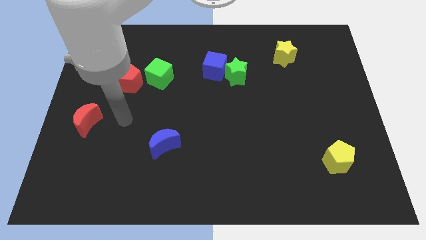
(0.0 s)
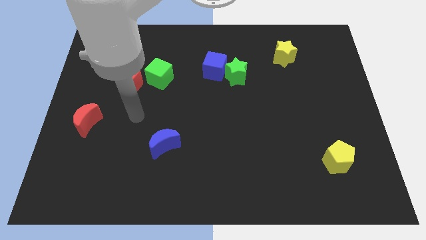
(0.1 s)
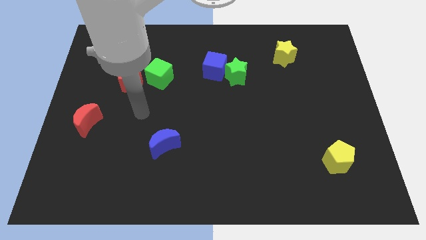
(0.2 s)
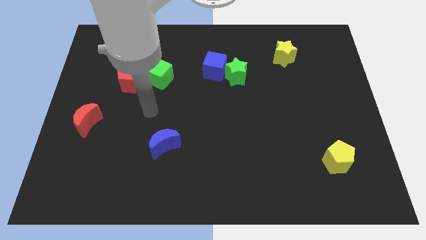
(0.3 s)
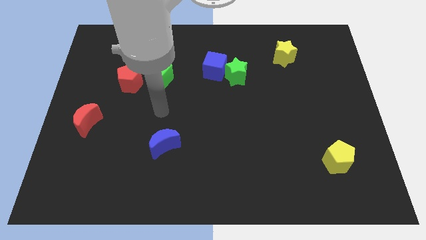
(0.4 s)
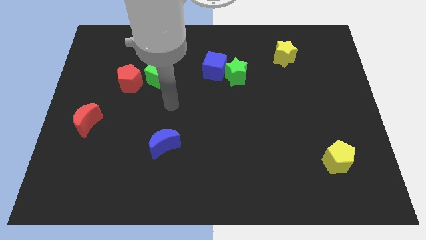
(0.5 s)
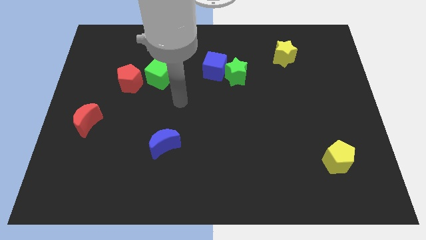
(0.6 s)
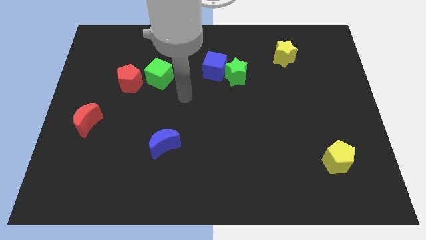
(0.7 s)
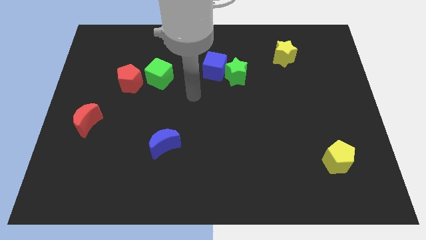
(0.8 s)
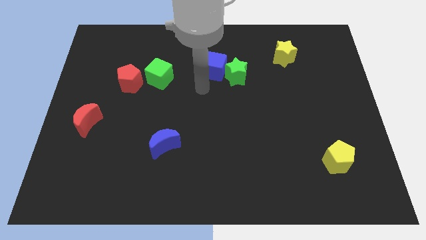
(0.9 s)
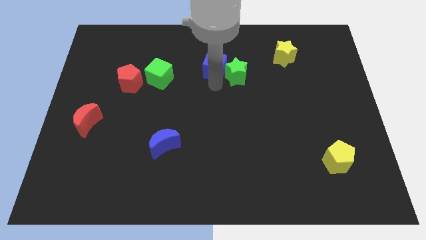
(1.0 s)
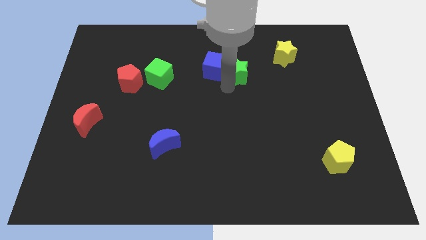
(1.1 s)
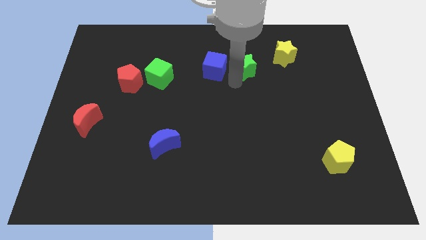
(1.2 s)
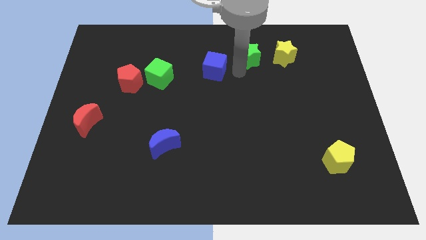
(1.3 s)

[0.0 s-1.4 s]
pull the blue cube apart from the green star

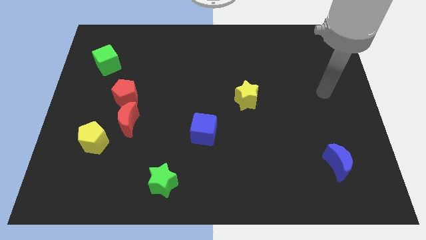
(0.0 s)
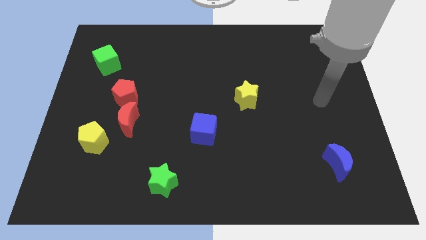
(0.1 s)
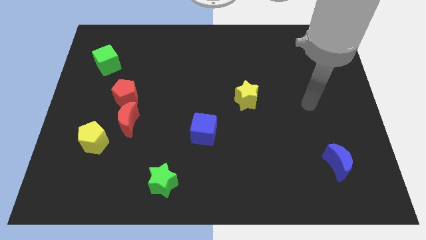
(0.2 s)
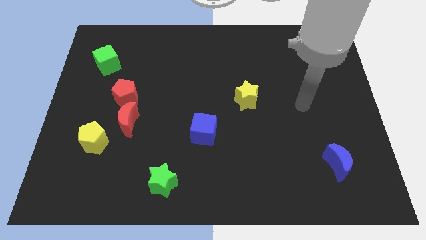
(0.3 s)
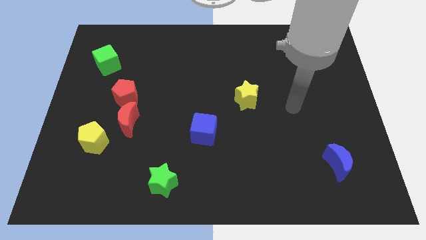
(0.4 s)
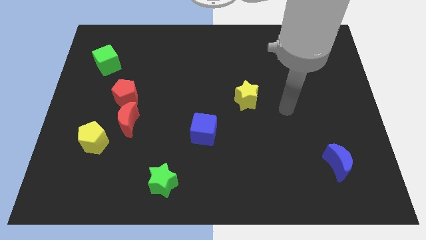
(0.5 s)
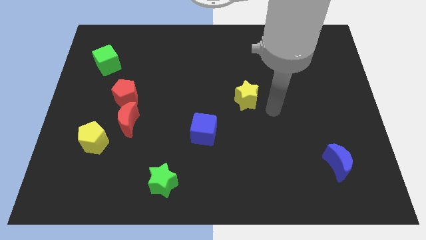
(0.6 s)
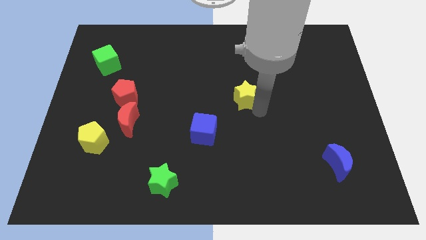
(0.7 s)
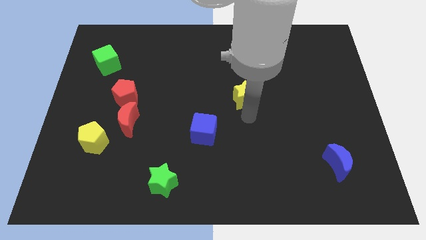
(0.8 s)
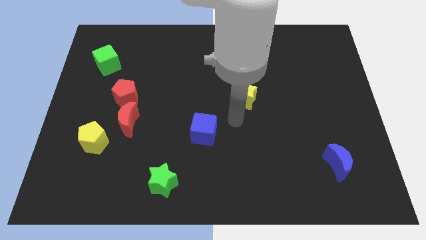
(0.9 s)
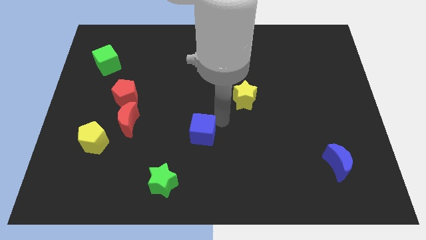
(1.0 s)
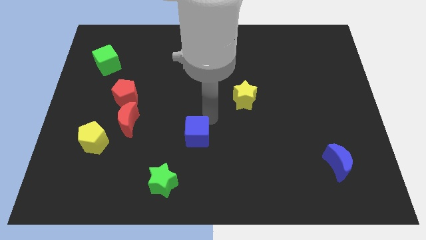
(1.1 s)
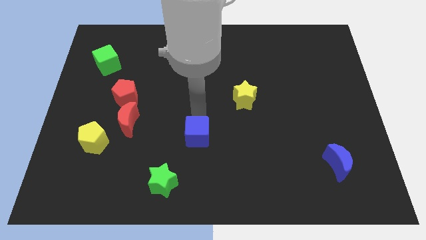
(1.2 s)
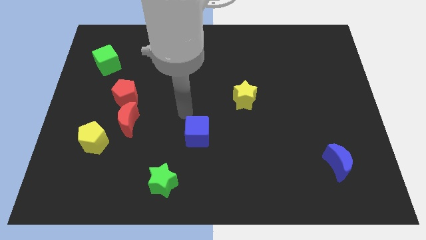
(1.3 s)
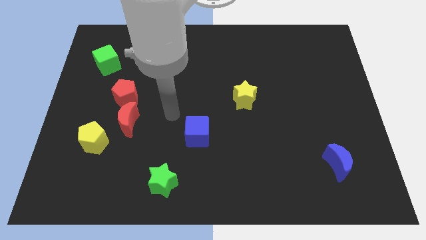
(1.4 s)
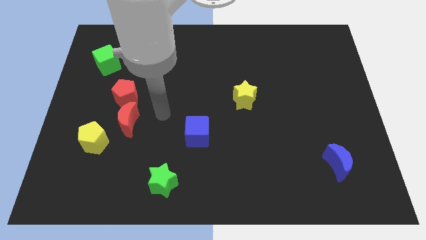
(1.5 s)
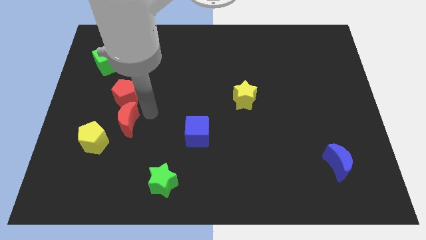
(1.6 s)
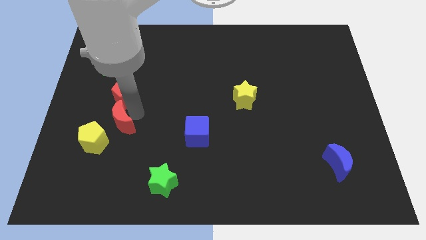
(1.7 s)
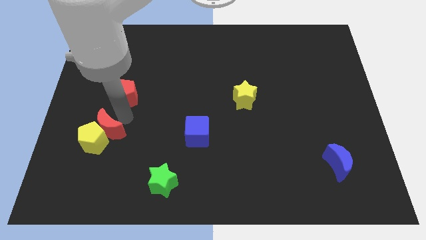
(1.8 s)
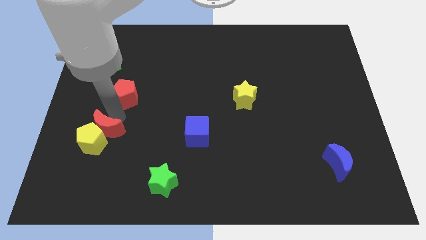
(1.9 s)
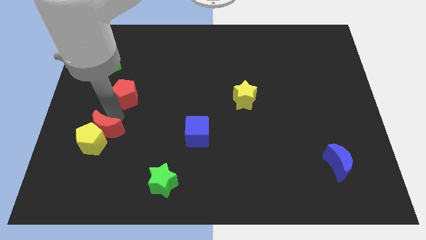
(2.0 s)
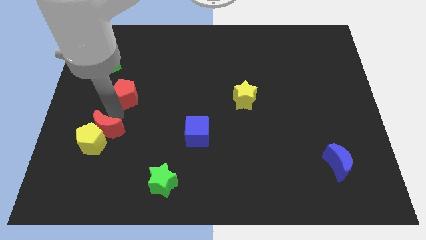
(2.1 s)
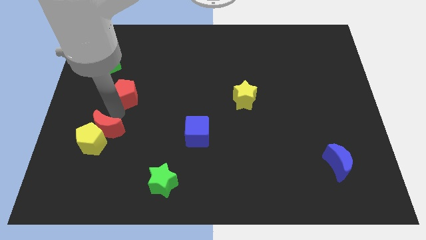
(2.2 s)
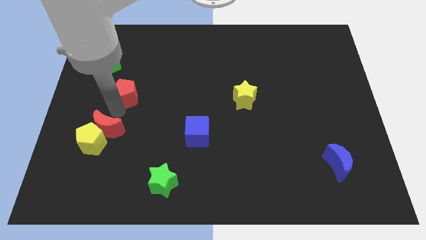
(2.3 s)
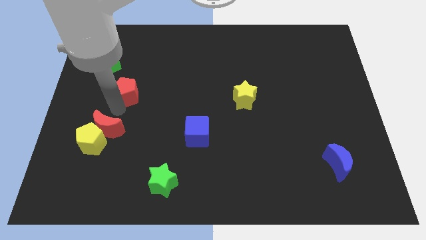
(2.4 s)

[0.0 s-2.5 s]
separate the red pentagon from the red moon

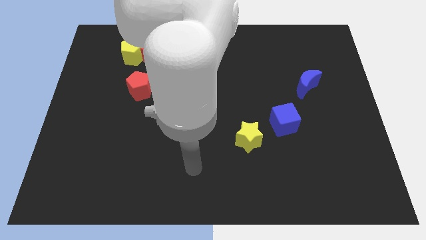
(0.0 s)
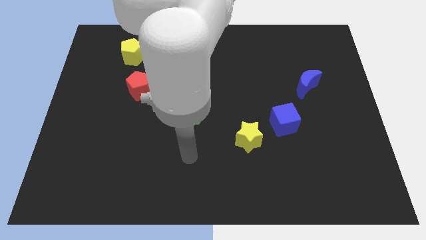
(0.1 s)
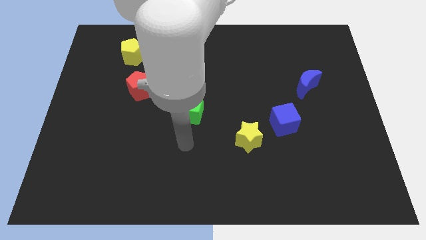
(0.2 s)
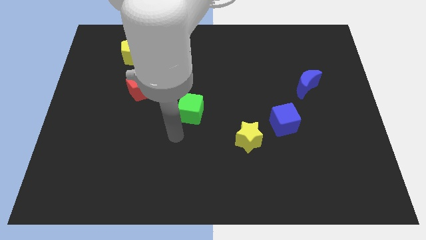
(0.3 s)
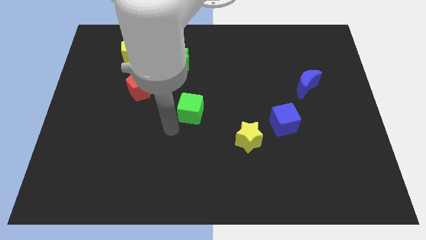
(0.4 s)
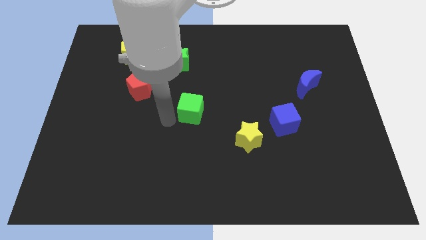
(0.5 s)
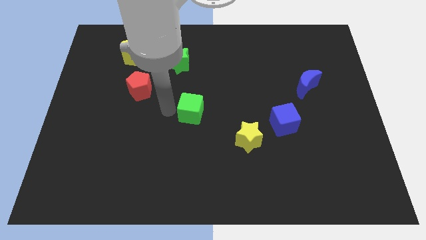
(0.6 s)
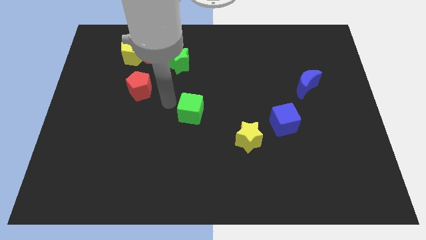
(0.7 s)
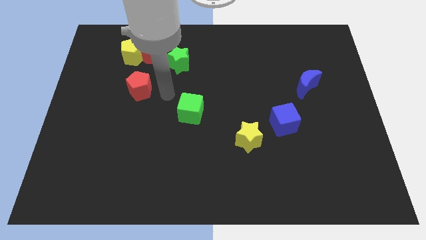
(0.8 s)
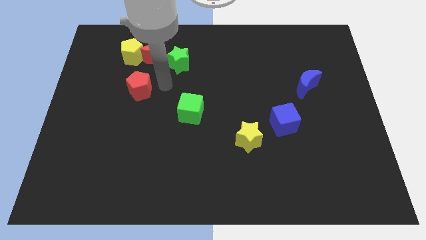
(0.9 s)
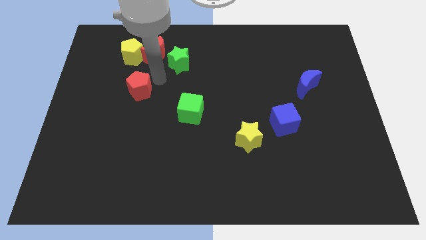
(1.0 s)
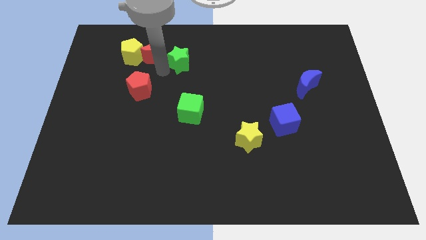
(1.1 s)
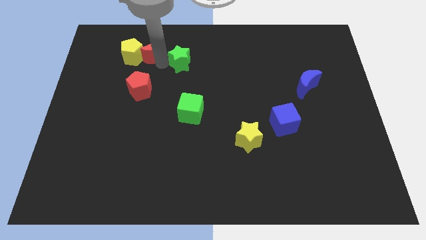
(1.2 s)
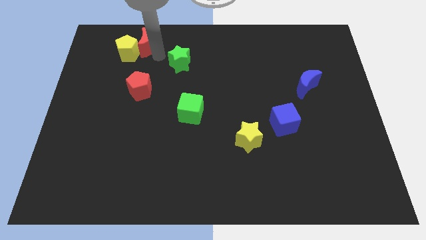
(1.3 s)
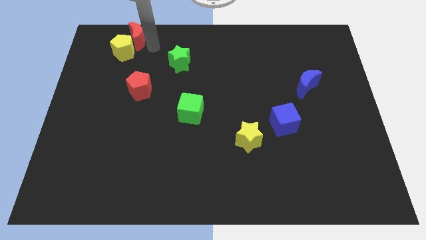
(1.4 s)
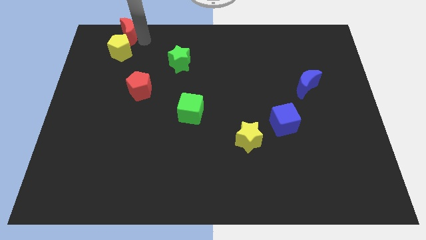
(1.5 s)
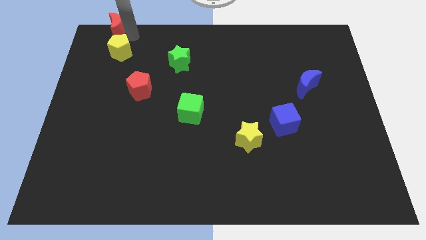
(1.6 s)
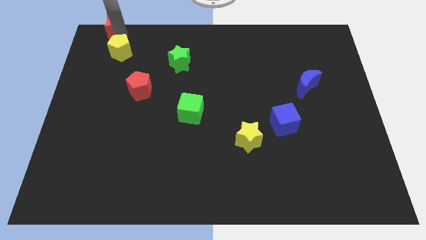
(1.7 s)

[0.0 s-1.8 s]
pull the yellow pentagon apart from the red moon

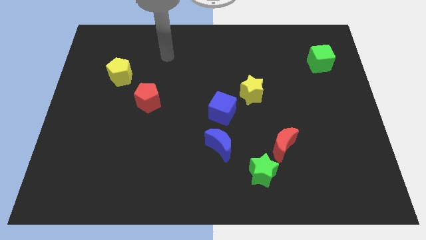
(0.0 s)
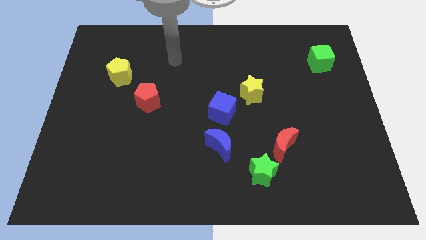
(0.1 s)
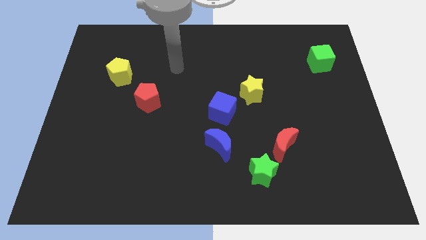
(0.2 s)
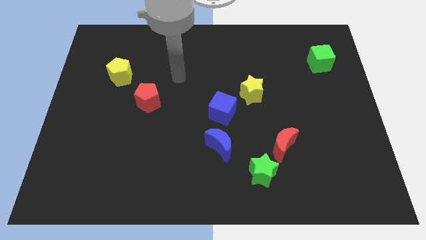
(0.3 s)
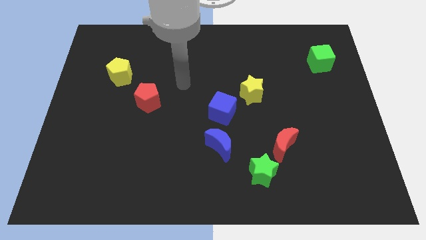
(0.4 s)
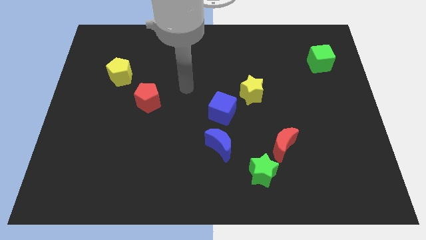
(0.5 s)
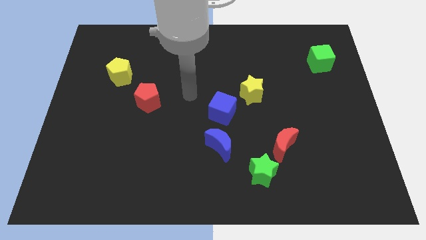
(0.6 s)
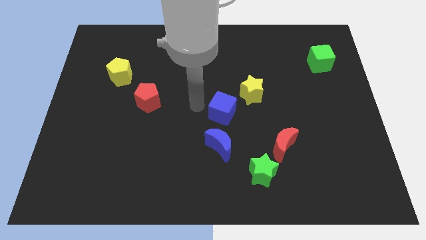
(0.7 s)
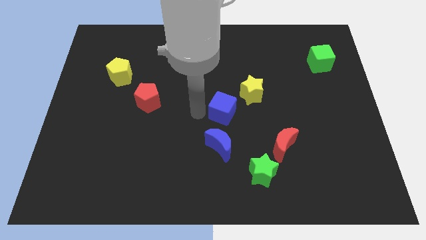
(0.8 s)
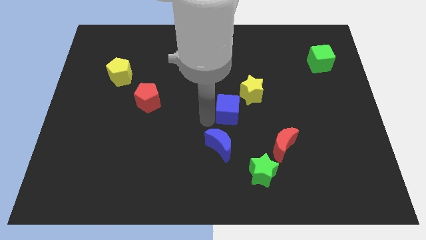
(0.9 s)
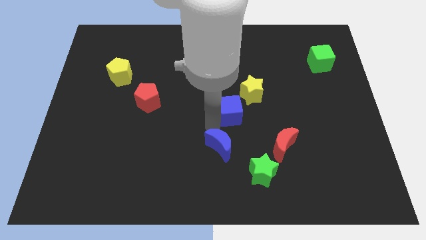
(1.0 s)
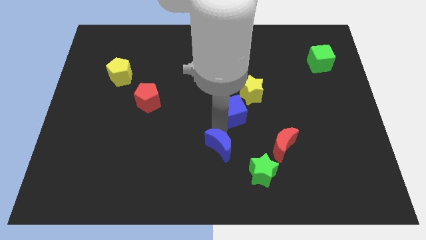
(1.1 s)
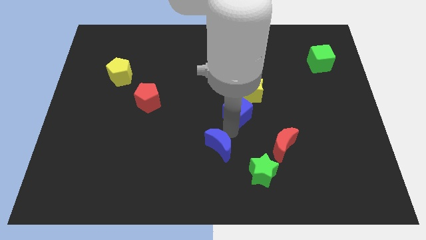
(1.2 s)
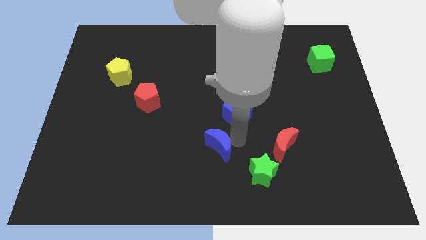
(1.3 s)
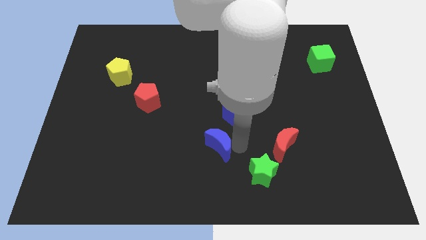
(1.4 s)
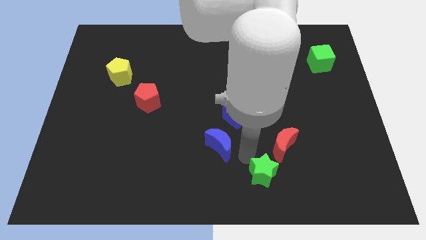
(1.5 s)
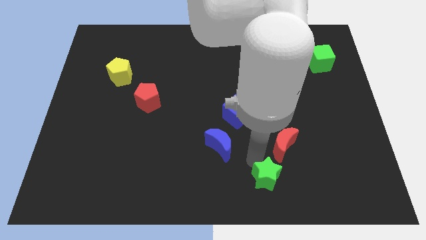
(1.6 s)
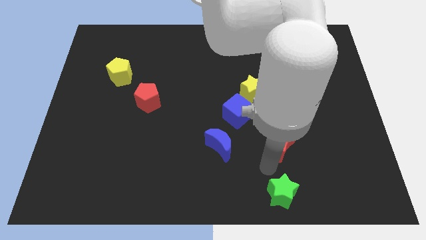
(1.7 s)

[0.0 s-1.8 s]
move the red moon away from the green star

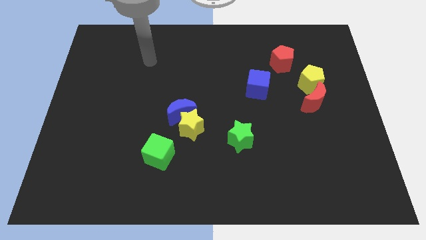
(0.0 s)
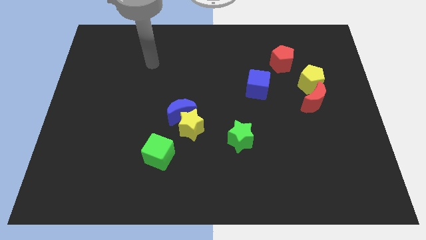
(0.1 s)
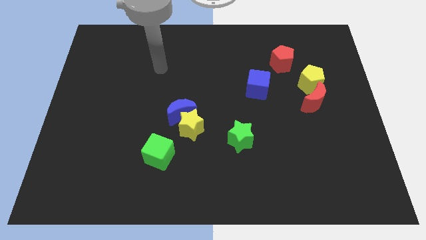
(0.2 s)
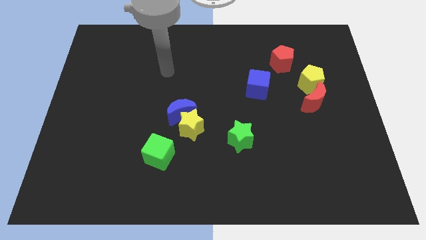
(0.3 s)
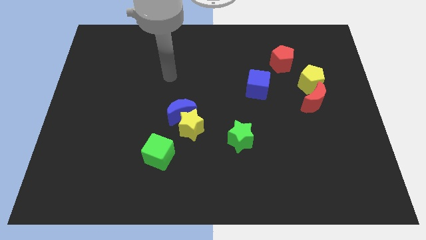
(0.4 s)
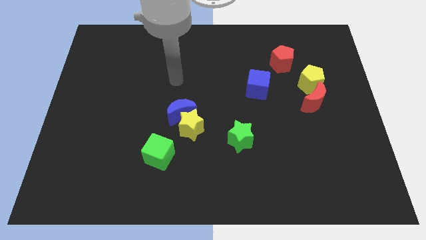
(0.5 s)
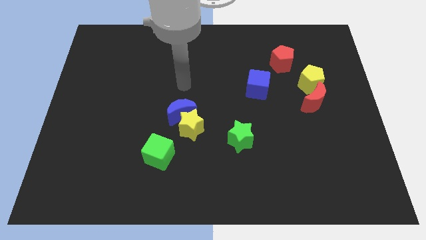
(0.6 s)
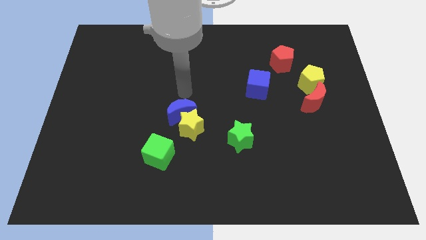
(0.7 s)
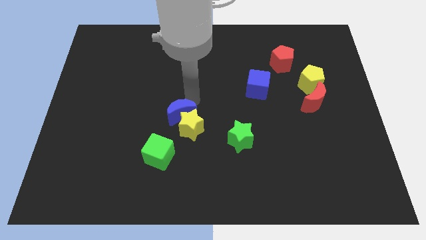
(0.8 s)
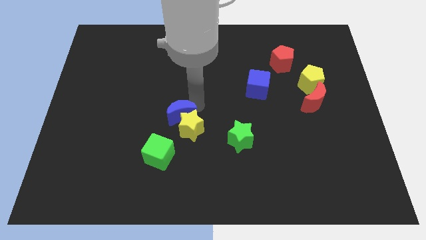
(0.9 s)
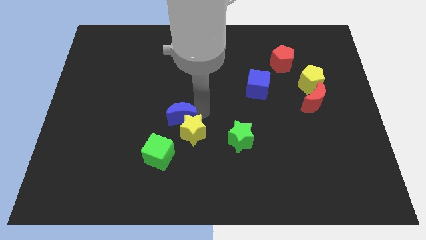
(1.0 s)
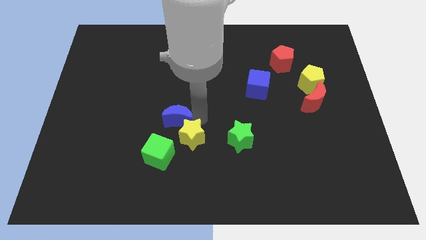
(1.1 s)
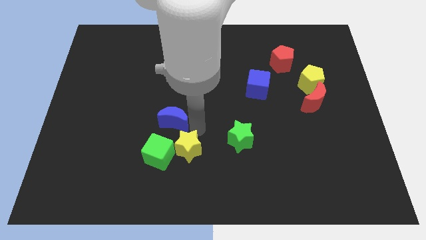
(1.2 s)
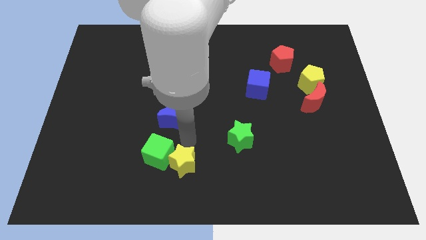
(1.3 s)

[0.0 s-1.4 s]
pull the blue moon apart from the yellow star

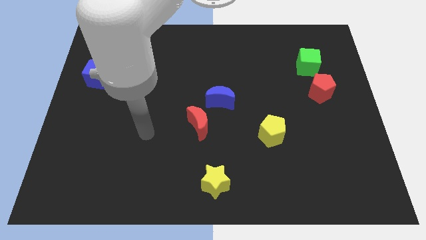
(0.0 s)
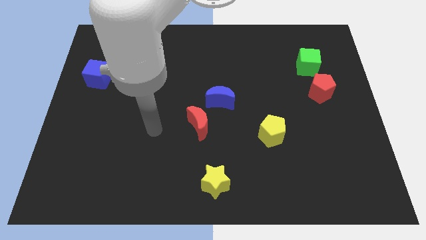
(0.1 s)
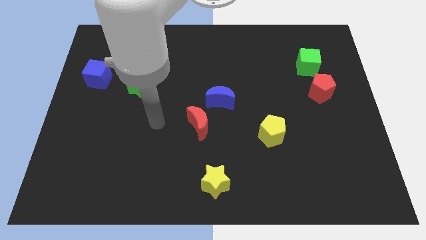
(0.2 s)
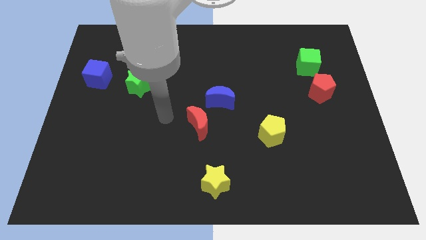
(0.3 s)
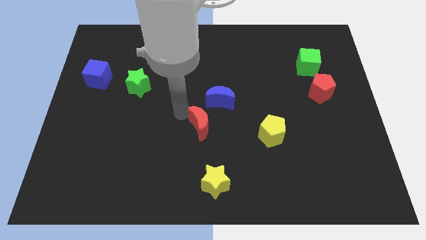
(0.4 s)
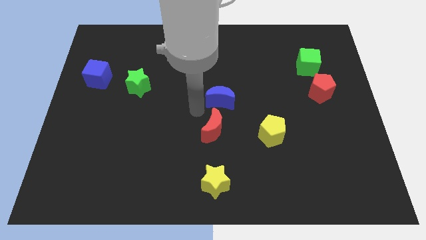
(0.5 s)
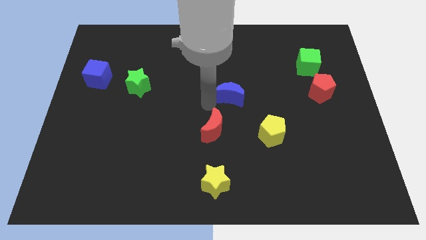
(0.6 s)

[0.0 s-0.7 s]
separate the red moon from the blue moon
